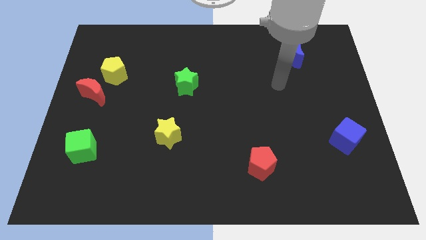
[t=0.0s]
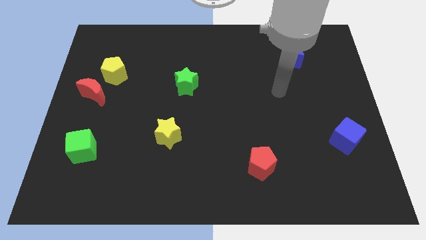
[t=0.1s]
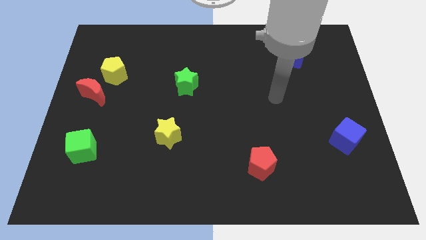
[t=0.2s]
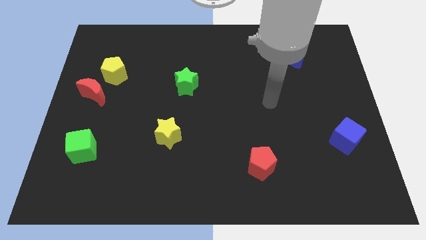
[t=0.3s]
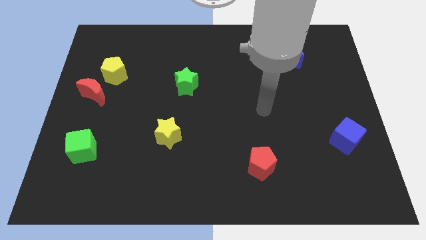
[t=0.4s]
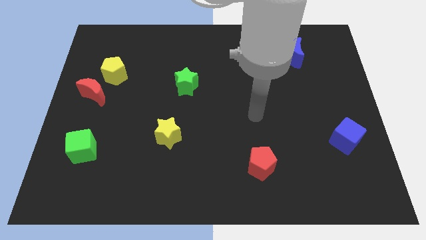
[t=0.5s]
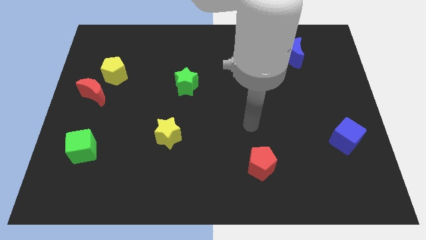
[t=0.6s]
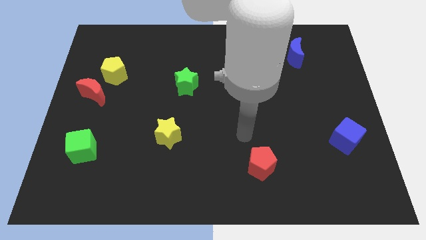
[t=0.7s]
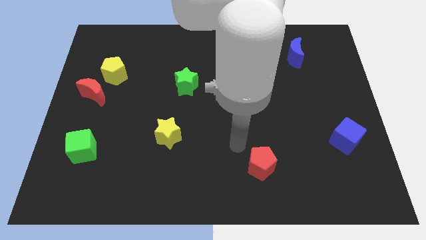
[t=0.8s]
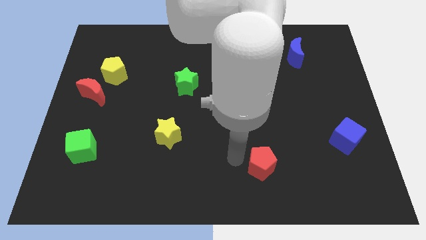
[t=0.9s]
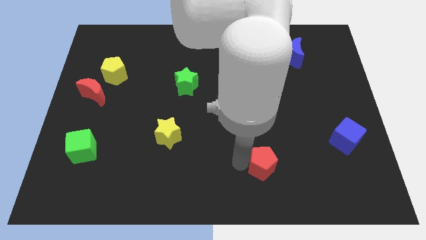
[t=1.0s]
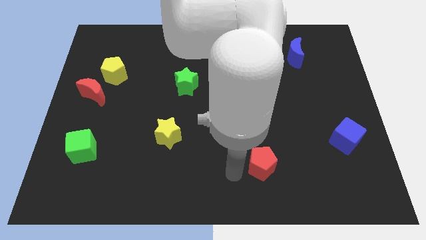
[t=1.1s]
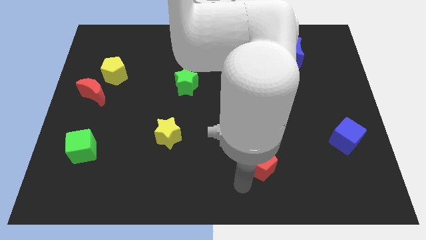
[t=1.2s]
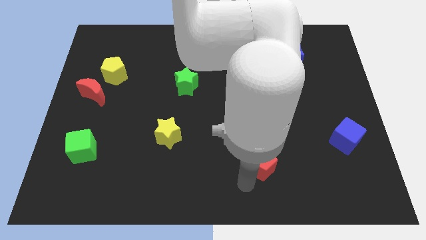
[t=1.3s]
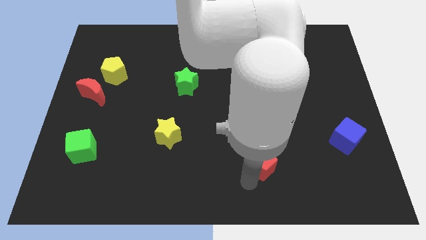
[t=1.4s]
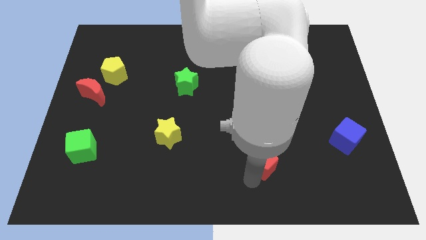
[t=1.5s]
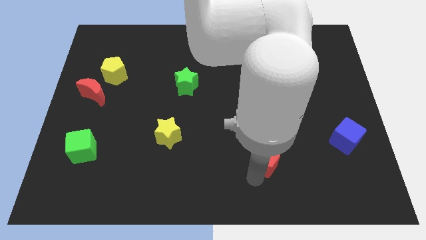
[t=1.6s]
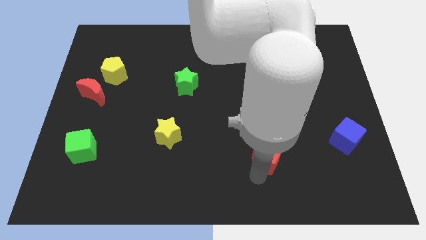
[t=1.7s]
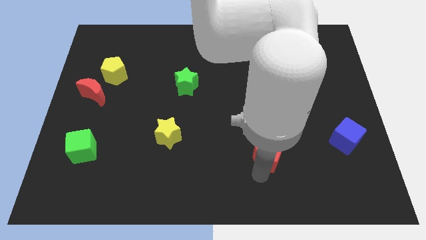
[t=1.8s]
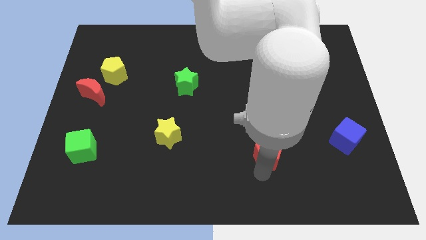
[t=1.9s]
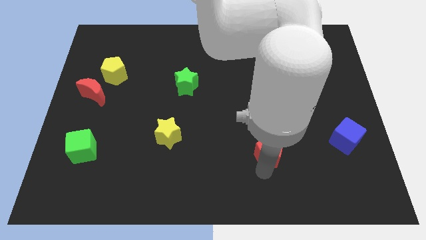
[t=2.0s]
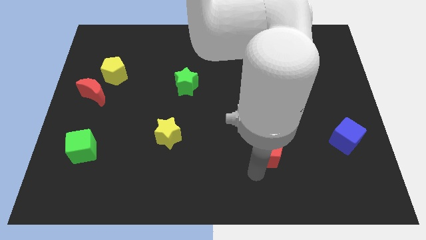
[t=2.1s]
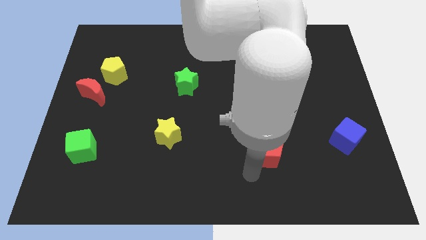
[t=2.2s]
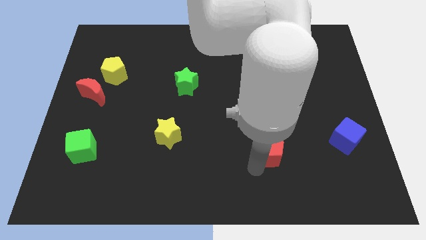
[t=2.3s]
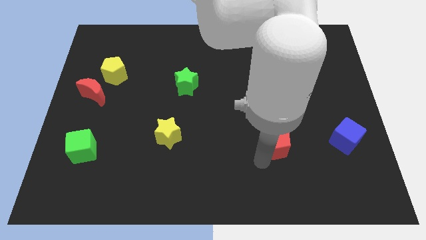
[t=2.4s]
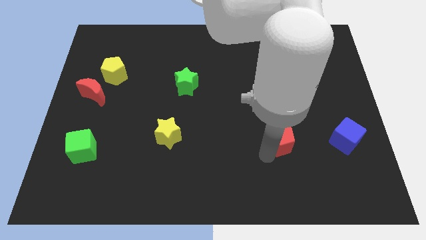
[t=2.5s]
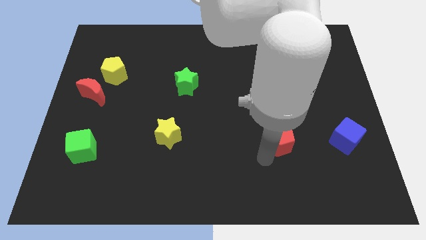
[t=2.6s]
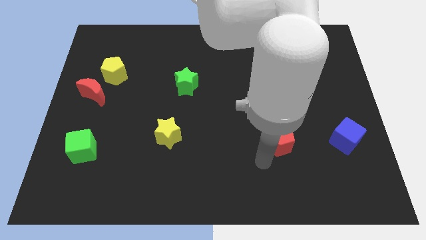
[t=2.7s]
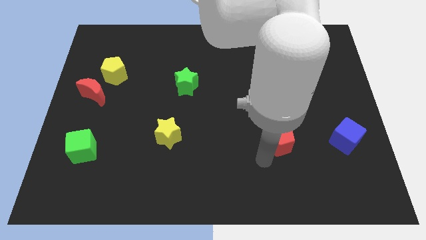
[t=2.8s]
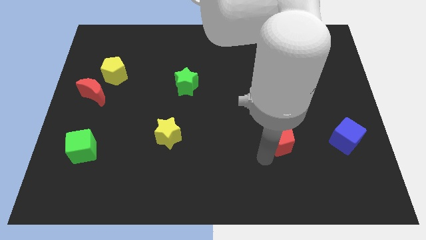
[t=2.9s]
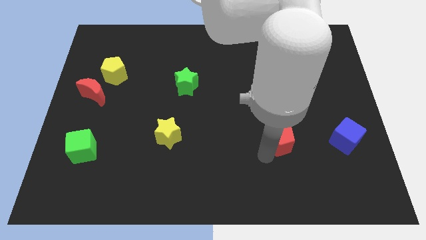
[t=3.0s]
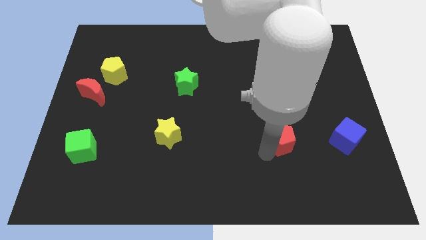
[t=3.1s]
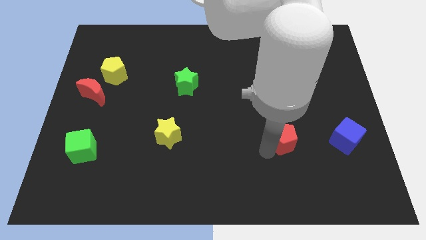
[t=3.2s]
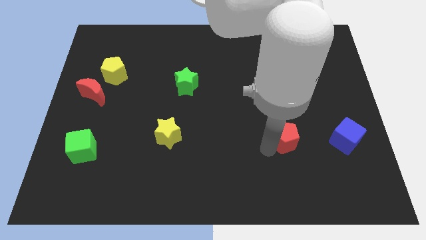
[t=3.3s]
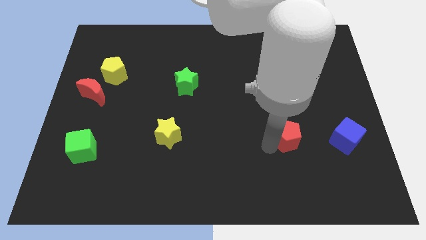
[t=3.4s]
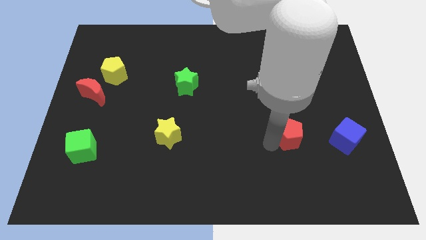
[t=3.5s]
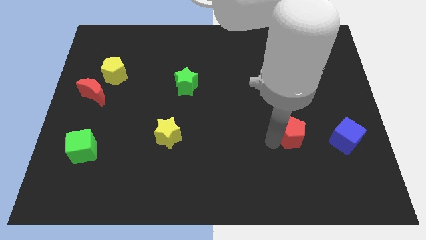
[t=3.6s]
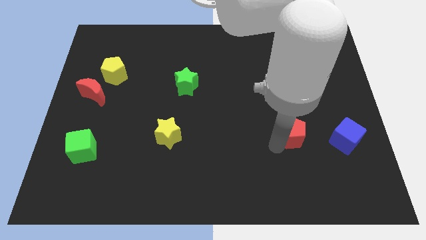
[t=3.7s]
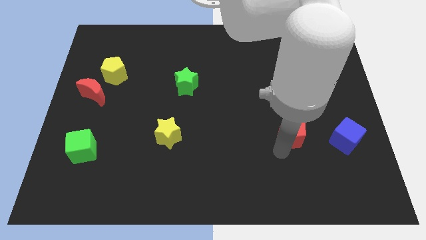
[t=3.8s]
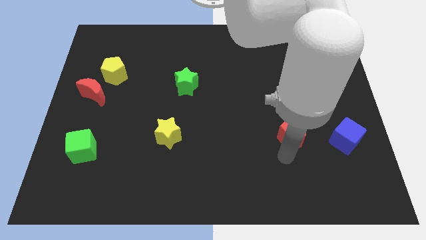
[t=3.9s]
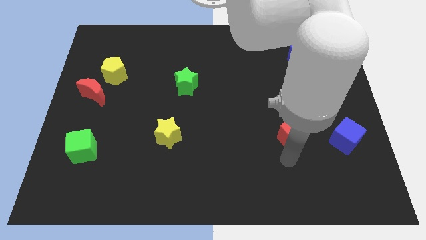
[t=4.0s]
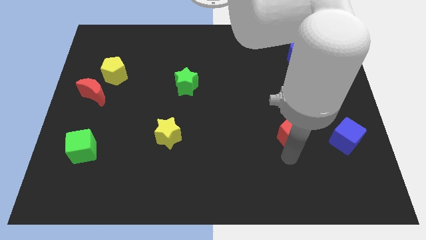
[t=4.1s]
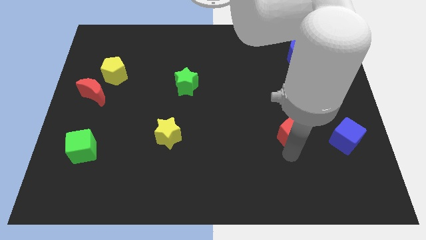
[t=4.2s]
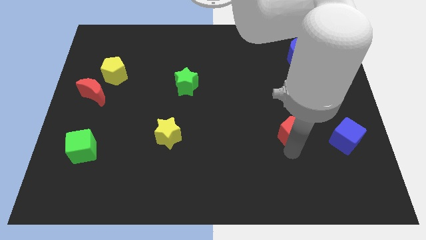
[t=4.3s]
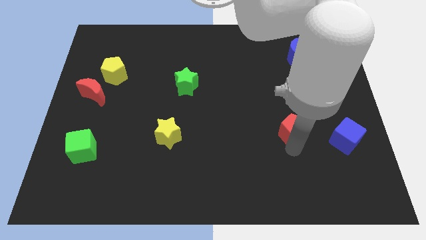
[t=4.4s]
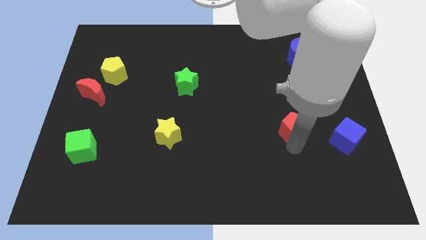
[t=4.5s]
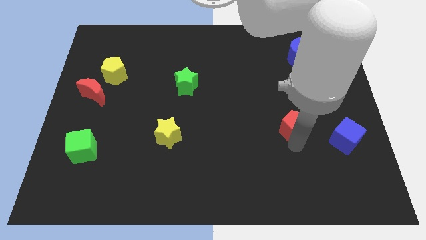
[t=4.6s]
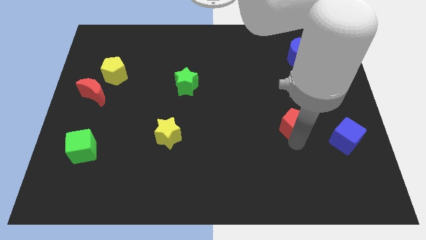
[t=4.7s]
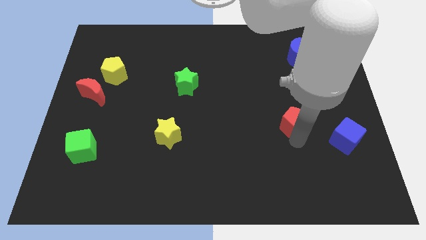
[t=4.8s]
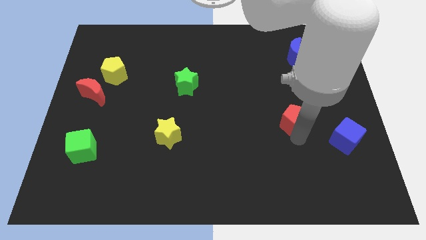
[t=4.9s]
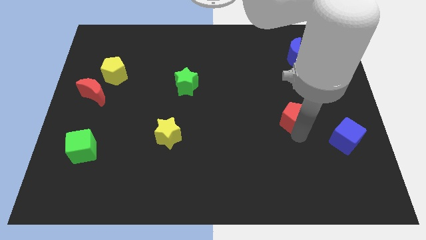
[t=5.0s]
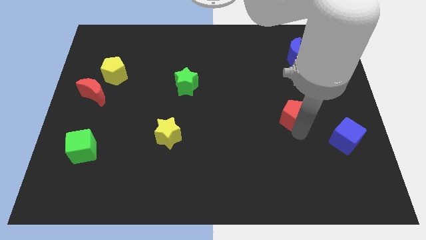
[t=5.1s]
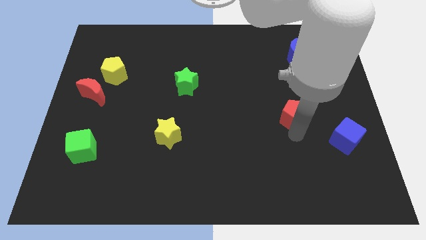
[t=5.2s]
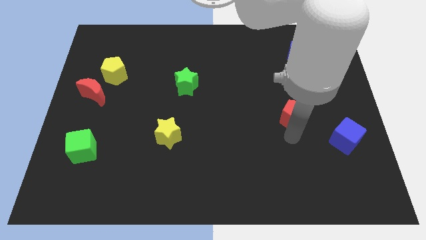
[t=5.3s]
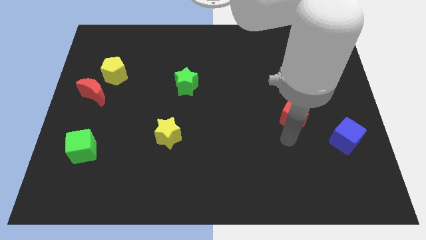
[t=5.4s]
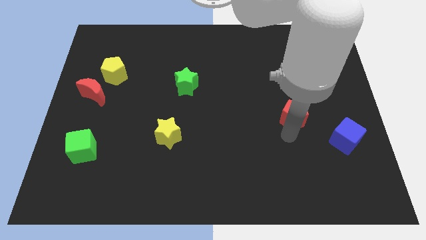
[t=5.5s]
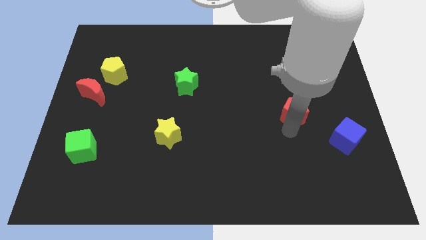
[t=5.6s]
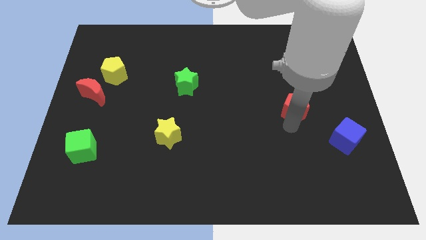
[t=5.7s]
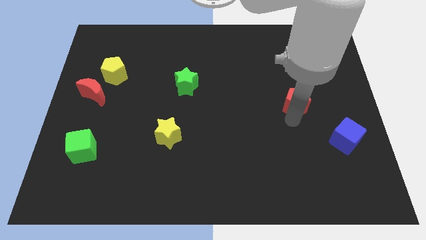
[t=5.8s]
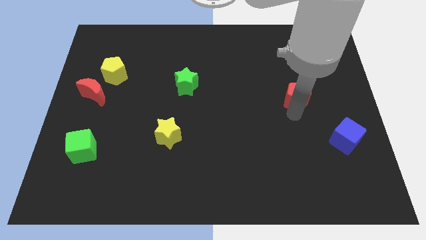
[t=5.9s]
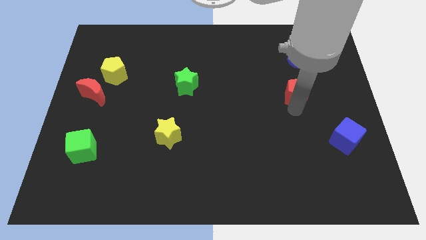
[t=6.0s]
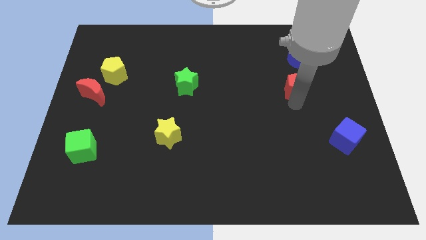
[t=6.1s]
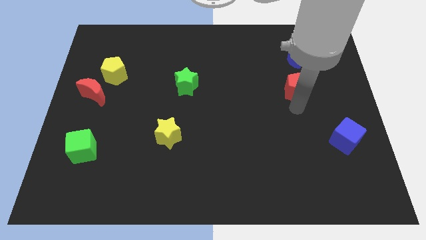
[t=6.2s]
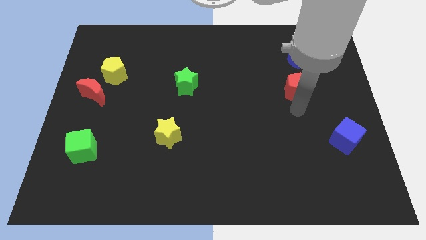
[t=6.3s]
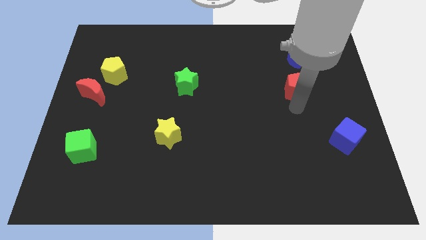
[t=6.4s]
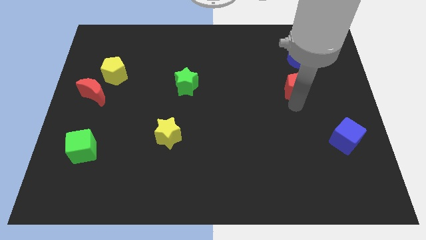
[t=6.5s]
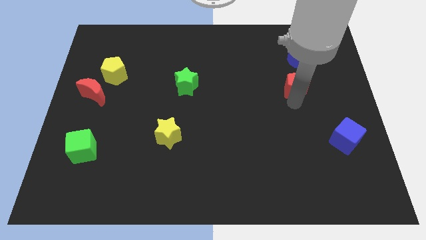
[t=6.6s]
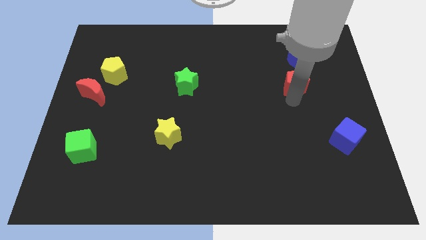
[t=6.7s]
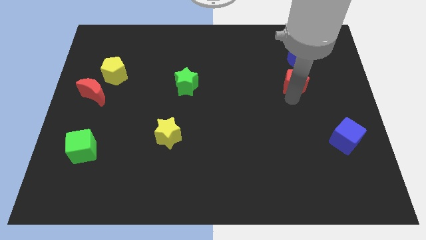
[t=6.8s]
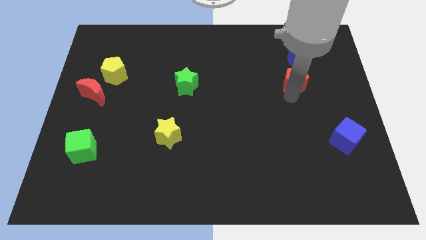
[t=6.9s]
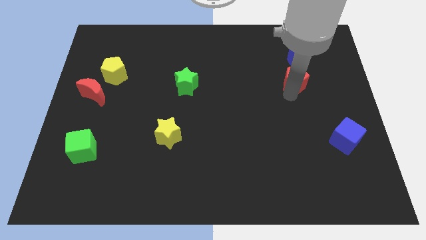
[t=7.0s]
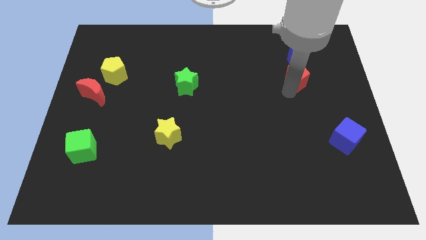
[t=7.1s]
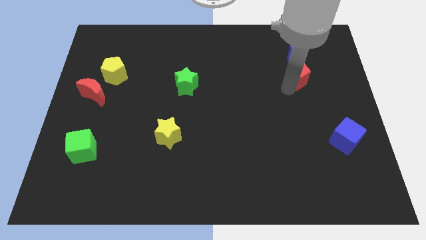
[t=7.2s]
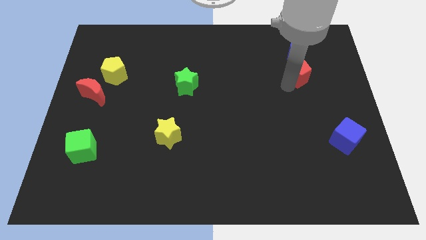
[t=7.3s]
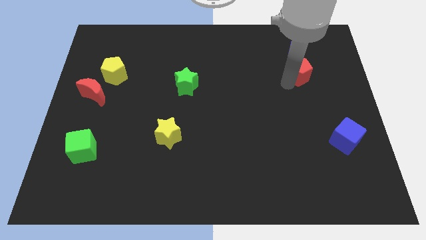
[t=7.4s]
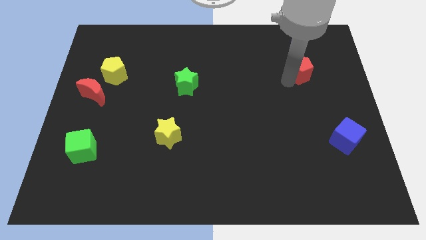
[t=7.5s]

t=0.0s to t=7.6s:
move the red pentagon close to the blue moon
